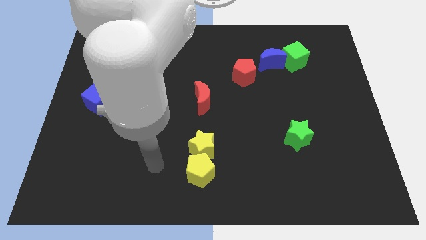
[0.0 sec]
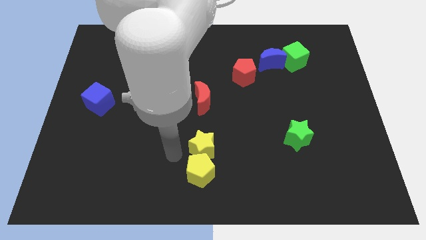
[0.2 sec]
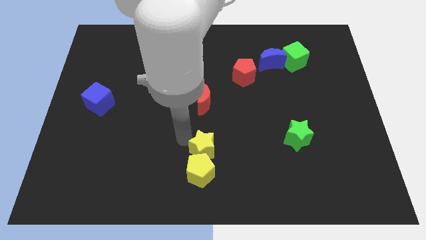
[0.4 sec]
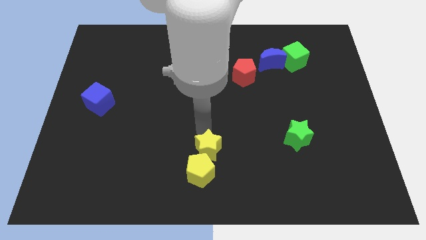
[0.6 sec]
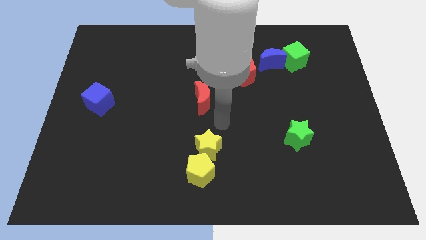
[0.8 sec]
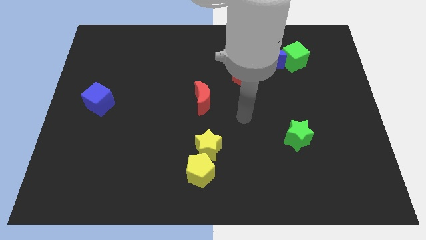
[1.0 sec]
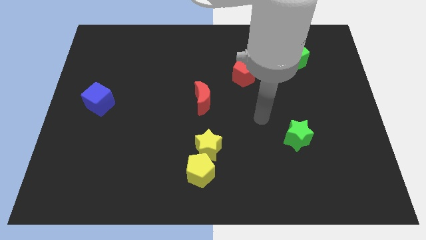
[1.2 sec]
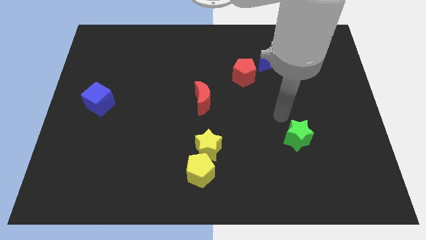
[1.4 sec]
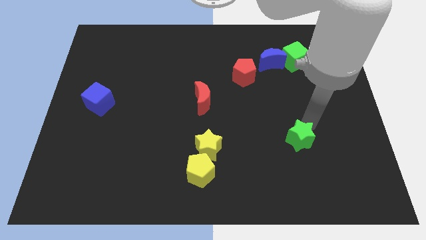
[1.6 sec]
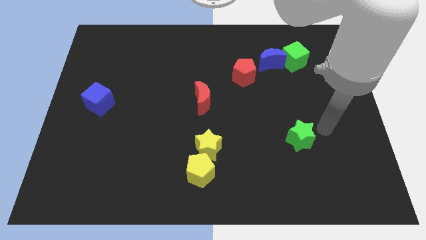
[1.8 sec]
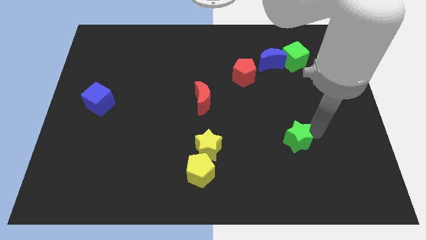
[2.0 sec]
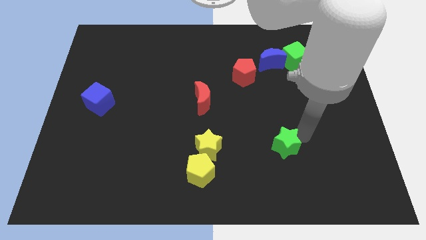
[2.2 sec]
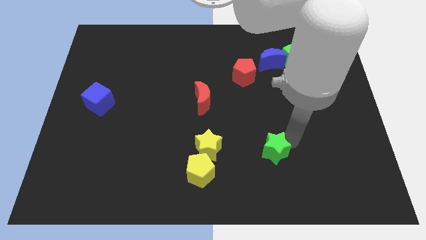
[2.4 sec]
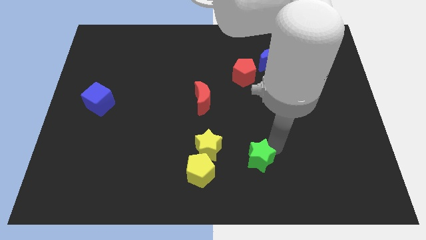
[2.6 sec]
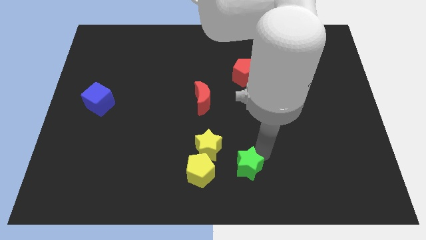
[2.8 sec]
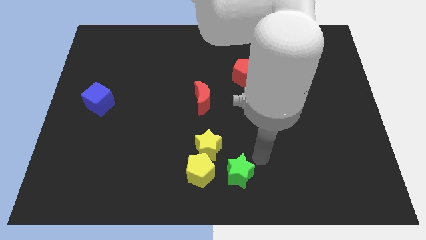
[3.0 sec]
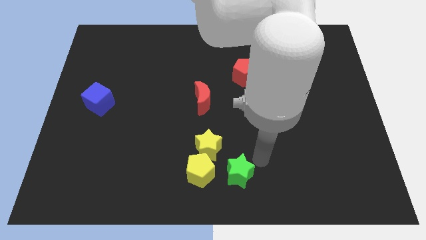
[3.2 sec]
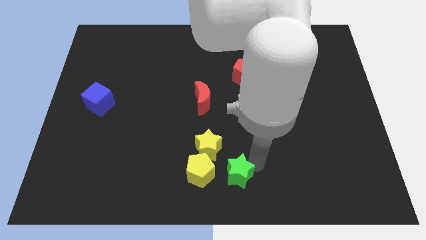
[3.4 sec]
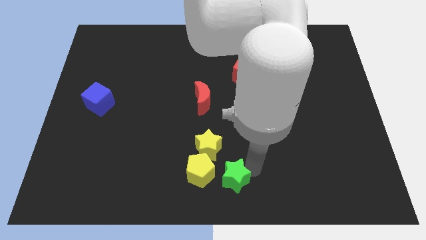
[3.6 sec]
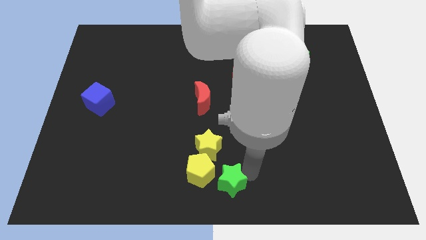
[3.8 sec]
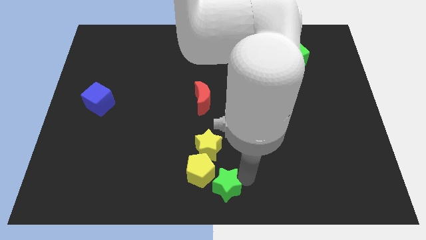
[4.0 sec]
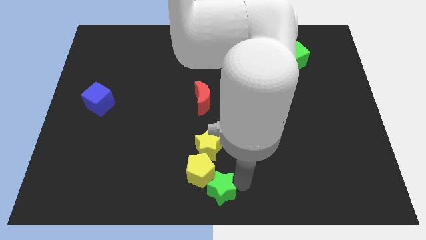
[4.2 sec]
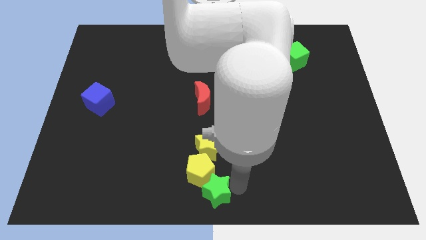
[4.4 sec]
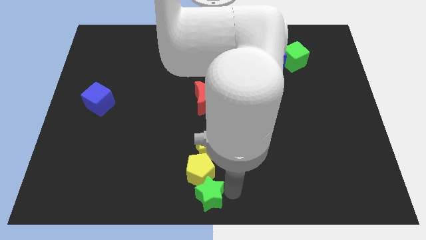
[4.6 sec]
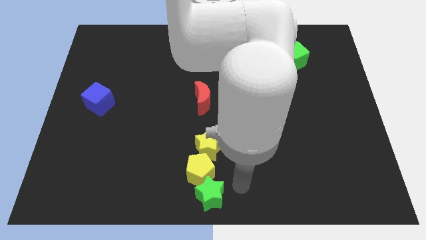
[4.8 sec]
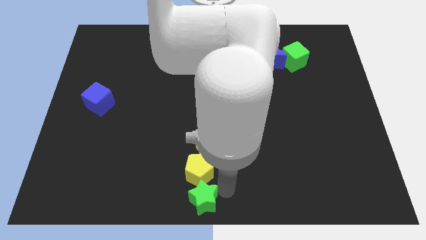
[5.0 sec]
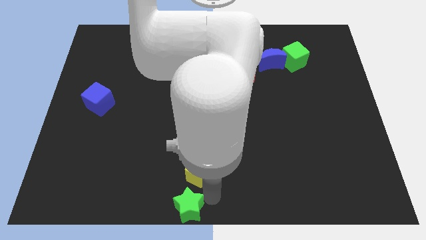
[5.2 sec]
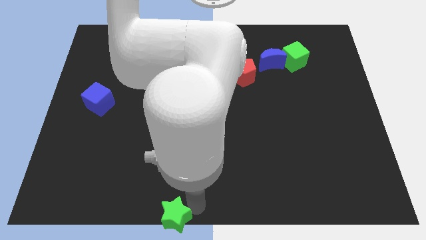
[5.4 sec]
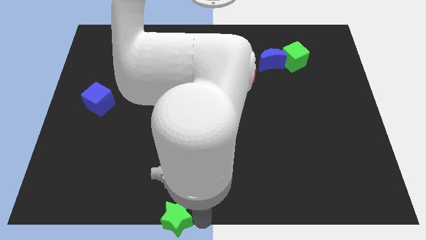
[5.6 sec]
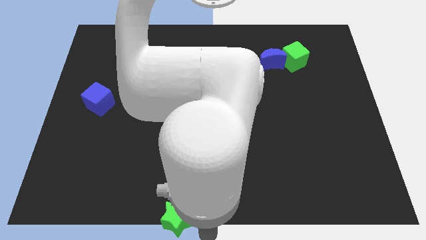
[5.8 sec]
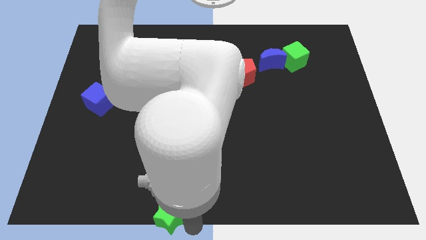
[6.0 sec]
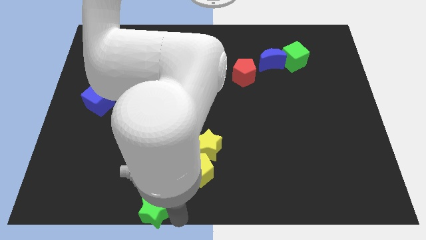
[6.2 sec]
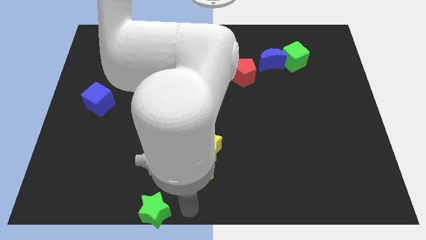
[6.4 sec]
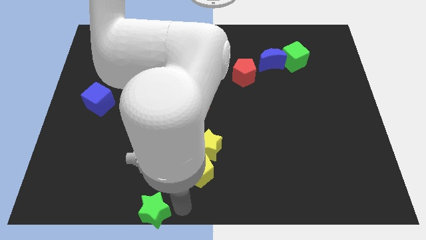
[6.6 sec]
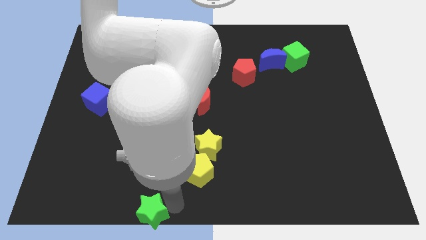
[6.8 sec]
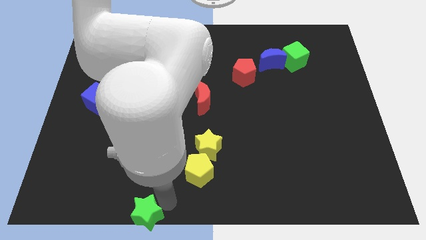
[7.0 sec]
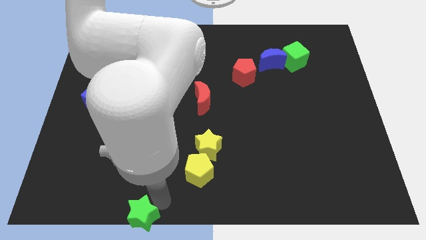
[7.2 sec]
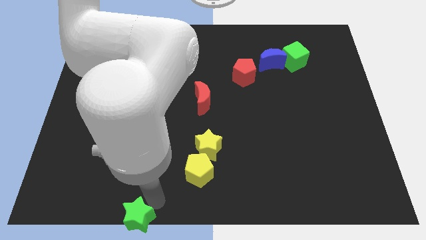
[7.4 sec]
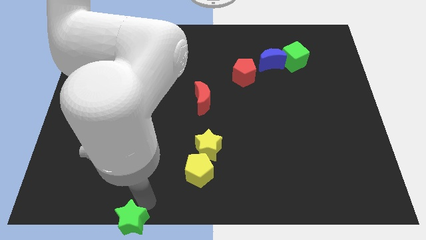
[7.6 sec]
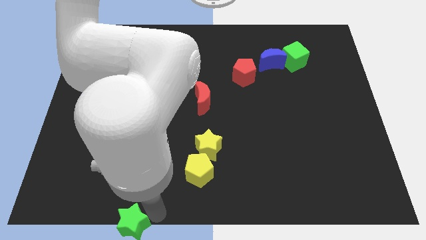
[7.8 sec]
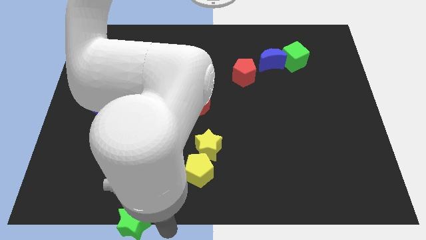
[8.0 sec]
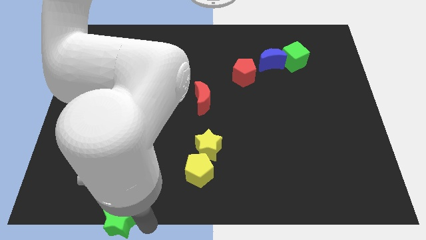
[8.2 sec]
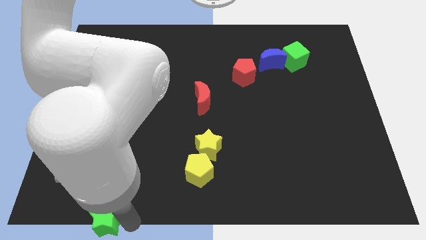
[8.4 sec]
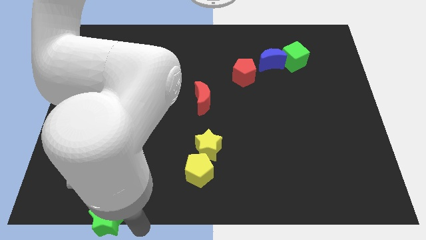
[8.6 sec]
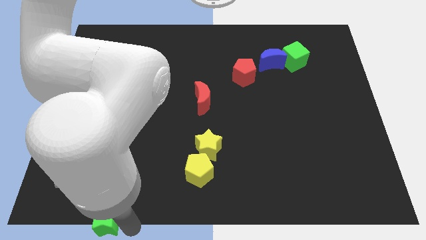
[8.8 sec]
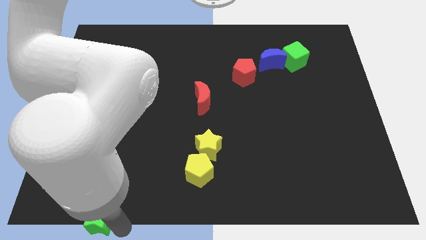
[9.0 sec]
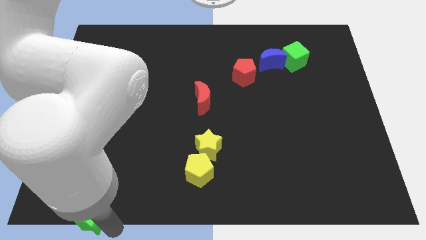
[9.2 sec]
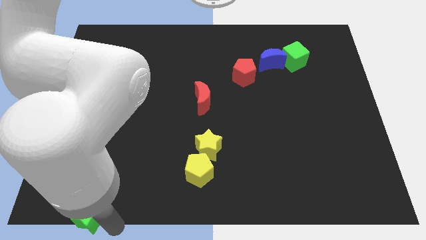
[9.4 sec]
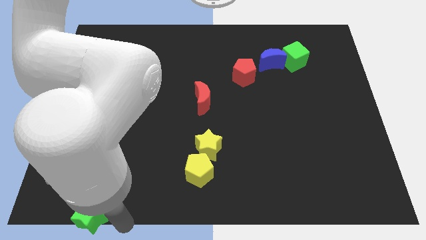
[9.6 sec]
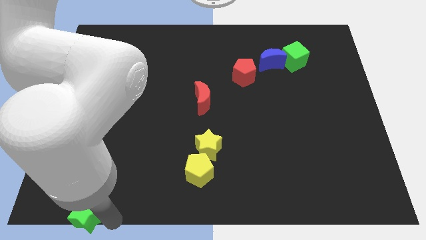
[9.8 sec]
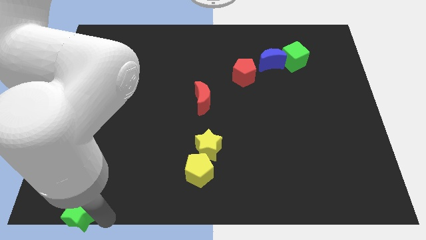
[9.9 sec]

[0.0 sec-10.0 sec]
slide the green star to the bottom left

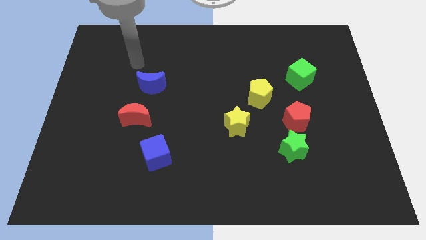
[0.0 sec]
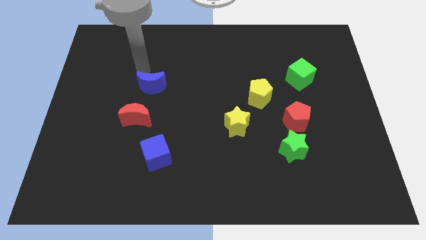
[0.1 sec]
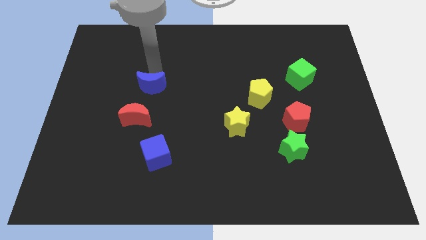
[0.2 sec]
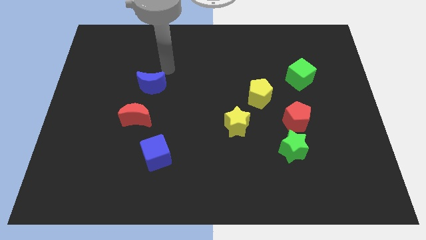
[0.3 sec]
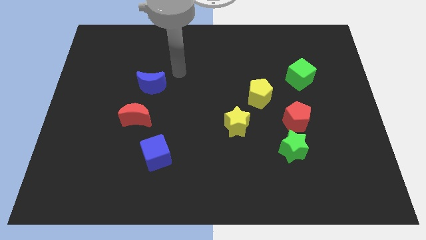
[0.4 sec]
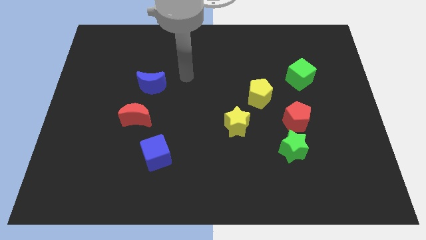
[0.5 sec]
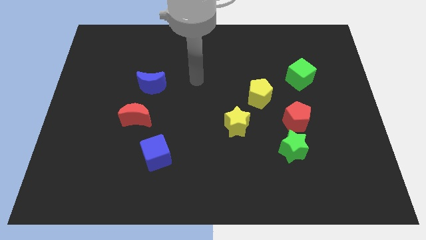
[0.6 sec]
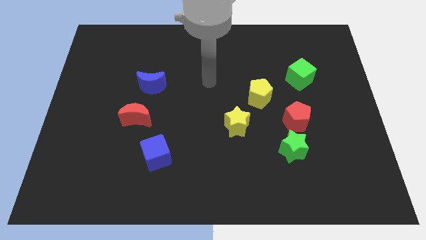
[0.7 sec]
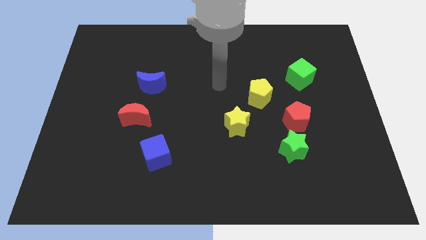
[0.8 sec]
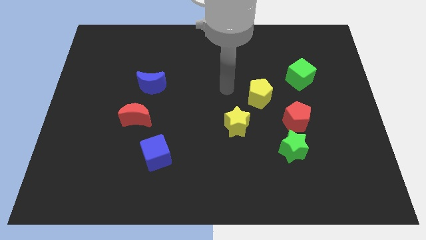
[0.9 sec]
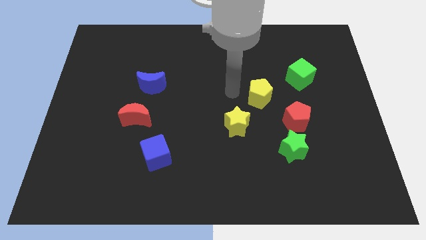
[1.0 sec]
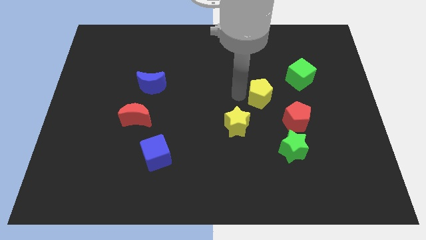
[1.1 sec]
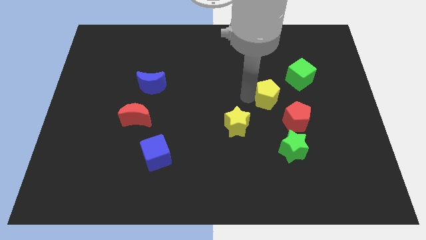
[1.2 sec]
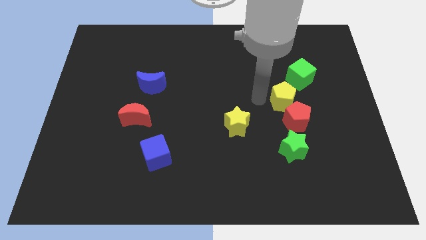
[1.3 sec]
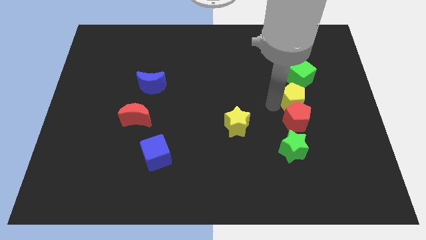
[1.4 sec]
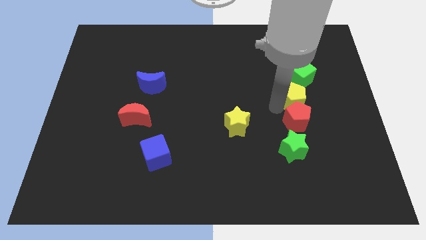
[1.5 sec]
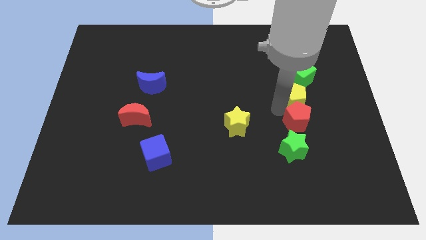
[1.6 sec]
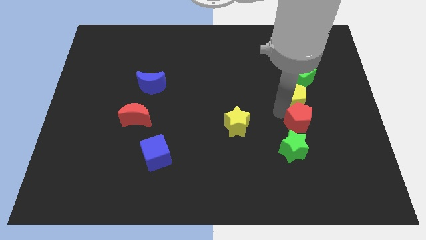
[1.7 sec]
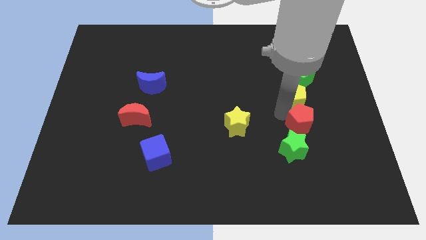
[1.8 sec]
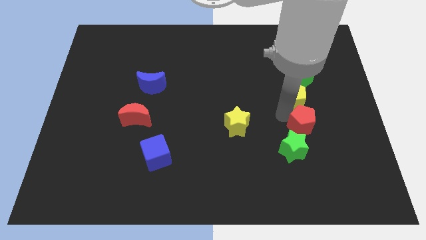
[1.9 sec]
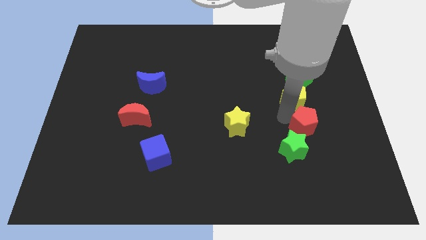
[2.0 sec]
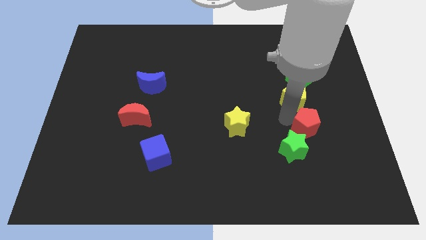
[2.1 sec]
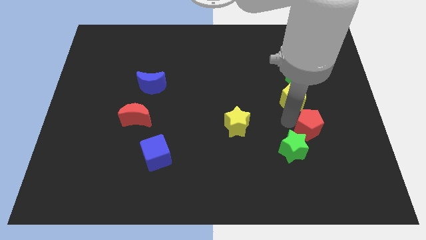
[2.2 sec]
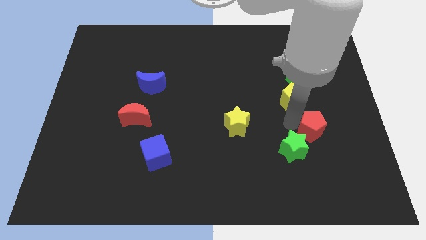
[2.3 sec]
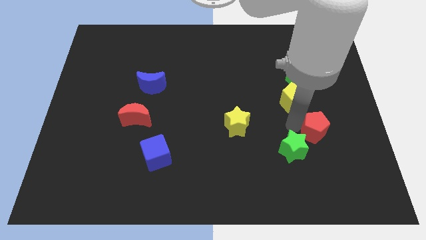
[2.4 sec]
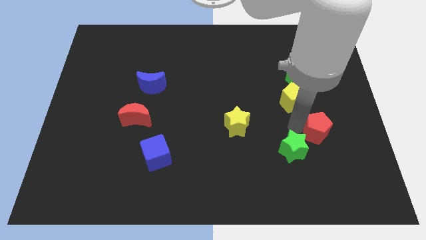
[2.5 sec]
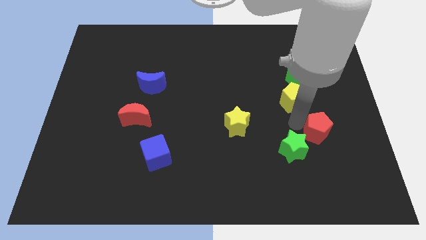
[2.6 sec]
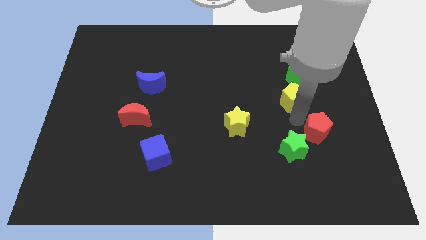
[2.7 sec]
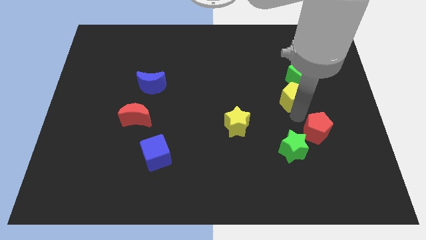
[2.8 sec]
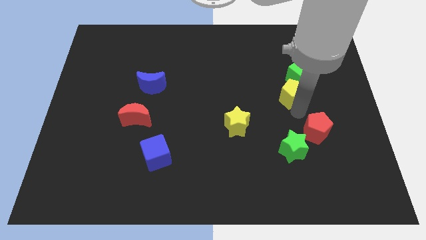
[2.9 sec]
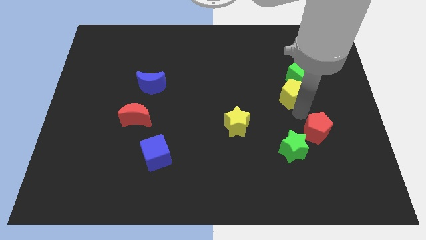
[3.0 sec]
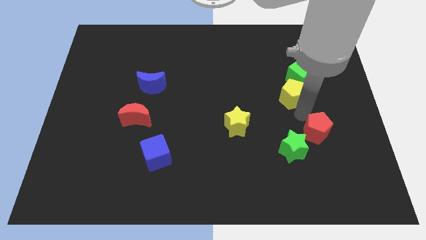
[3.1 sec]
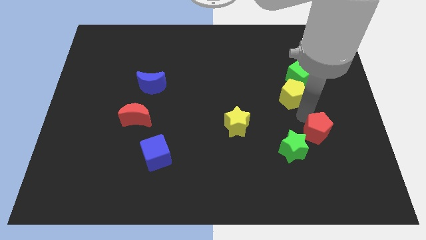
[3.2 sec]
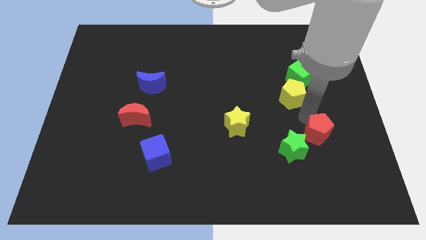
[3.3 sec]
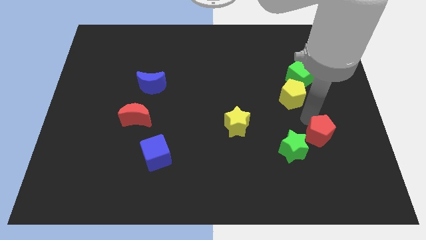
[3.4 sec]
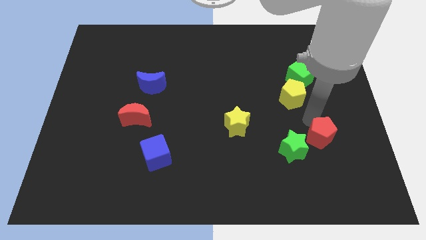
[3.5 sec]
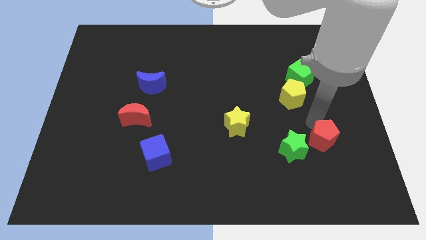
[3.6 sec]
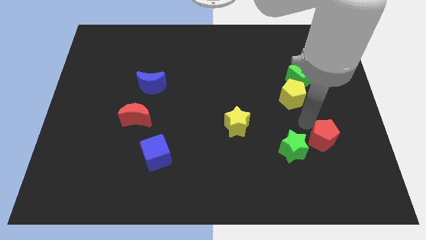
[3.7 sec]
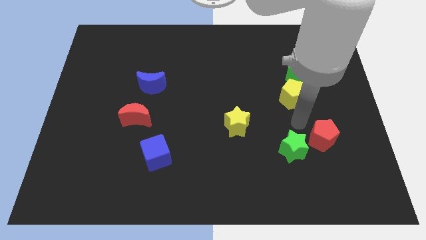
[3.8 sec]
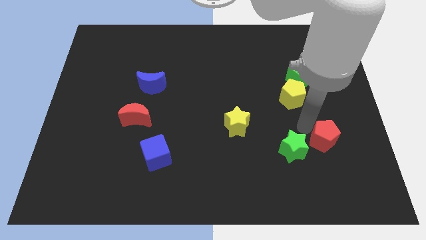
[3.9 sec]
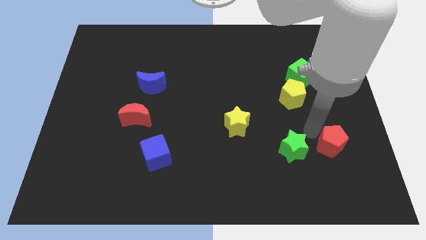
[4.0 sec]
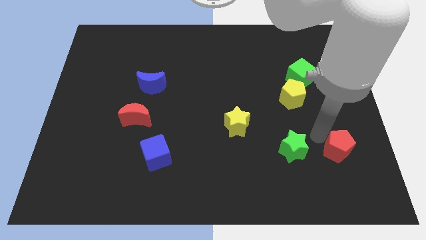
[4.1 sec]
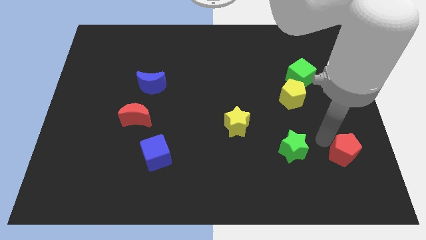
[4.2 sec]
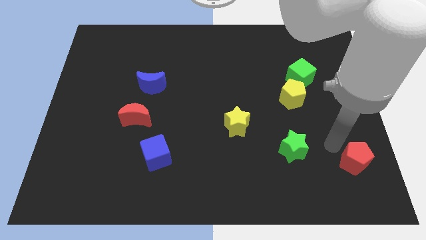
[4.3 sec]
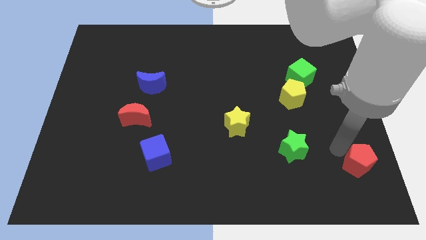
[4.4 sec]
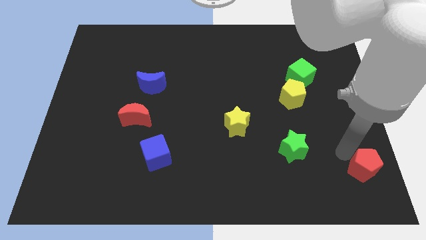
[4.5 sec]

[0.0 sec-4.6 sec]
put the red pentagon to the bottom right
